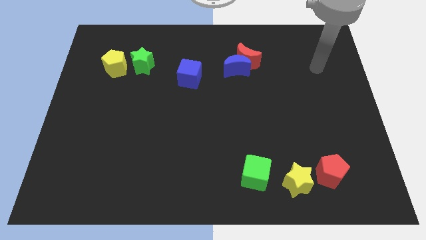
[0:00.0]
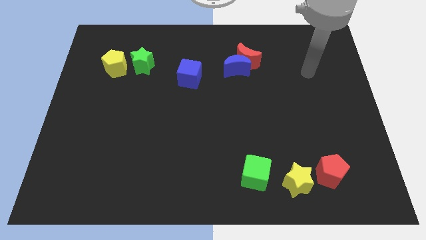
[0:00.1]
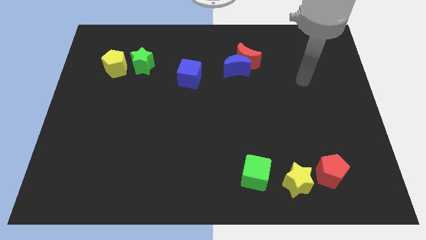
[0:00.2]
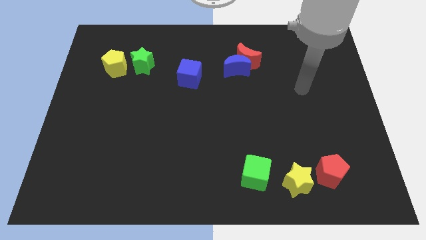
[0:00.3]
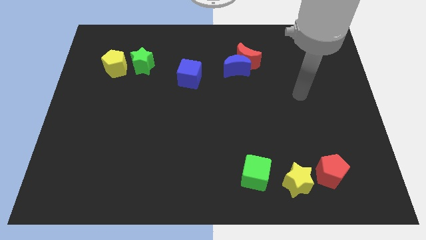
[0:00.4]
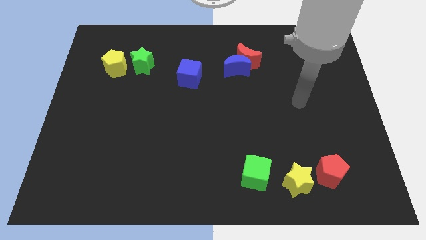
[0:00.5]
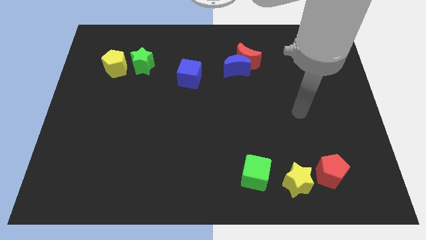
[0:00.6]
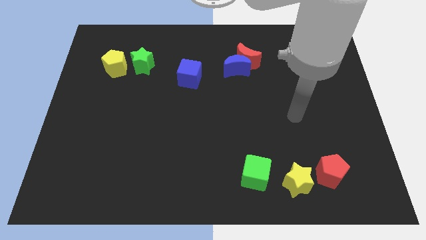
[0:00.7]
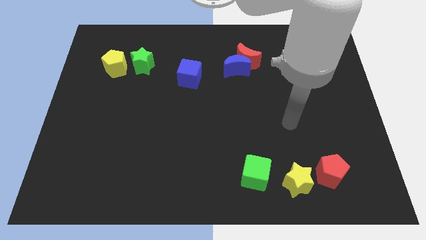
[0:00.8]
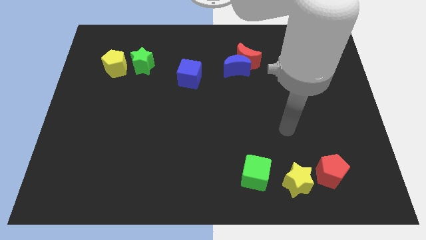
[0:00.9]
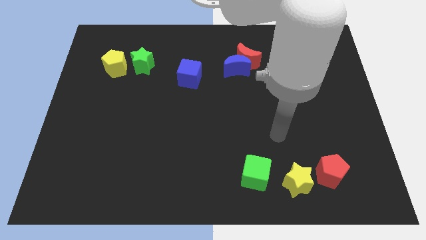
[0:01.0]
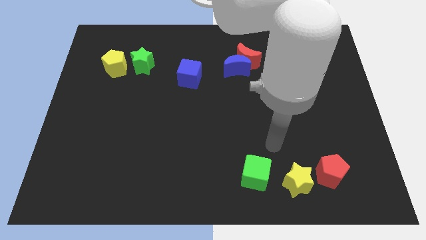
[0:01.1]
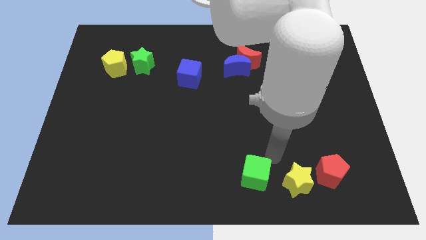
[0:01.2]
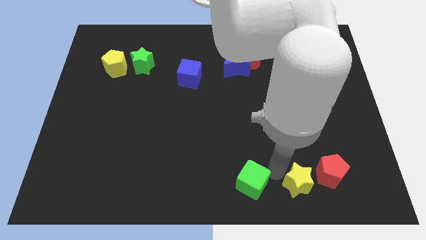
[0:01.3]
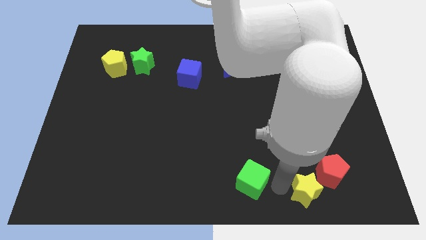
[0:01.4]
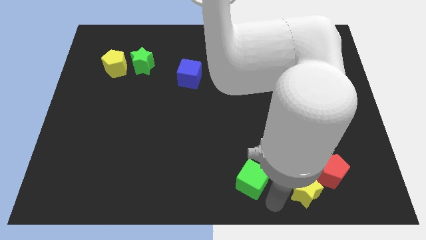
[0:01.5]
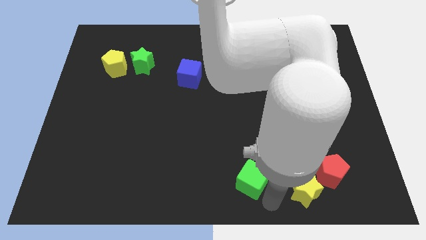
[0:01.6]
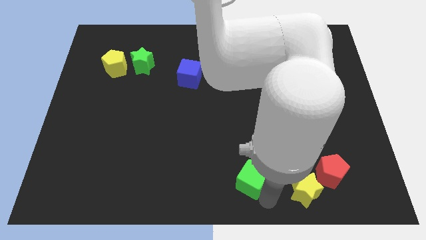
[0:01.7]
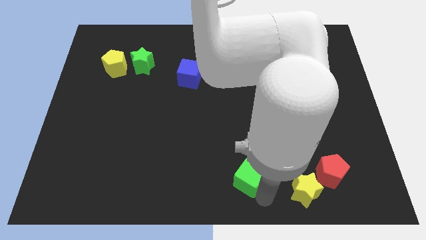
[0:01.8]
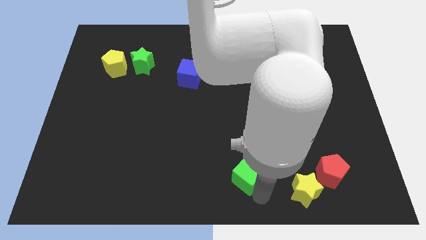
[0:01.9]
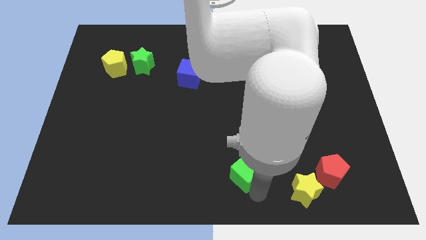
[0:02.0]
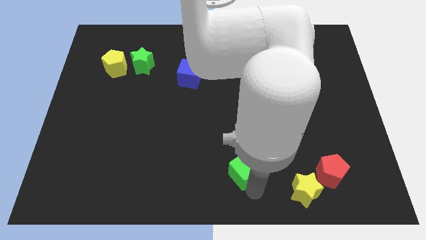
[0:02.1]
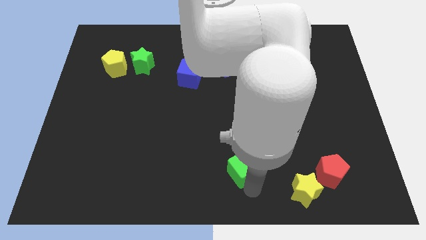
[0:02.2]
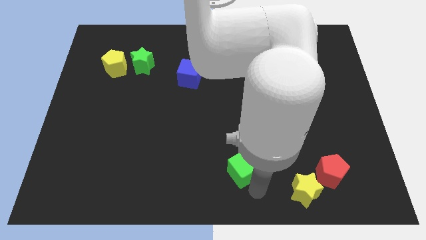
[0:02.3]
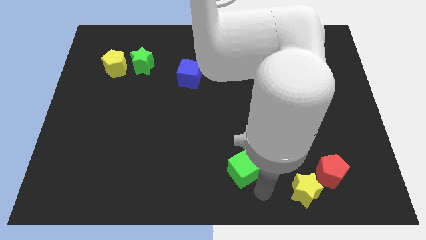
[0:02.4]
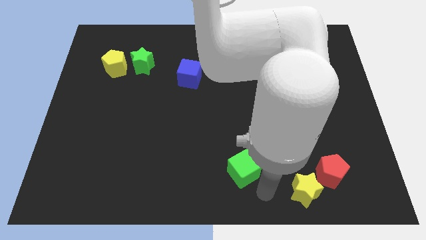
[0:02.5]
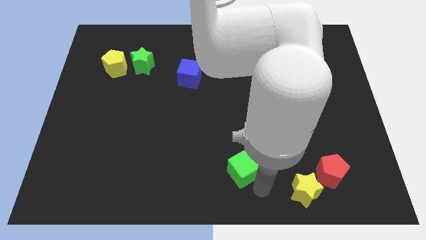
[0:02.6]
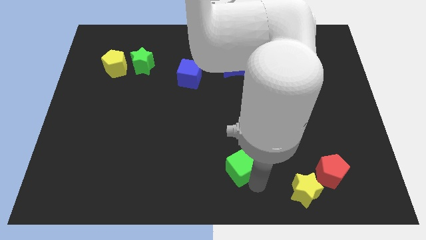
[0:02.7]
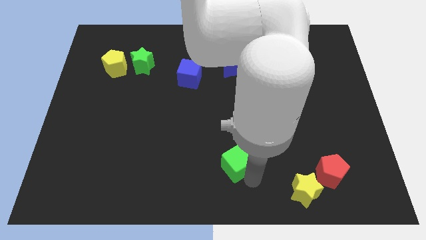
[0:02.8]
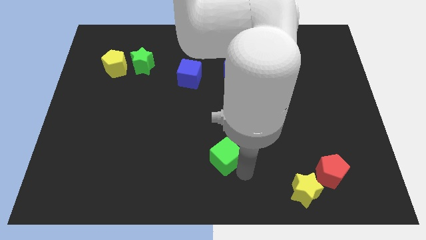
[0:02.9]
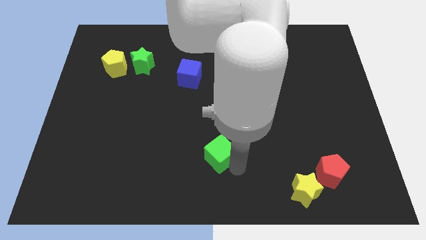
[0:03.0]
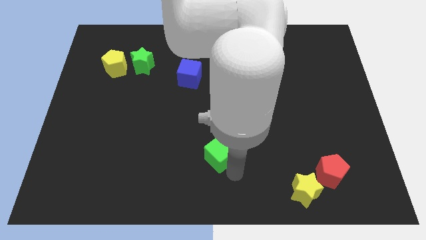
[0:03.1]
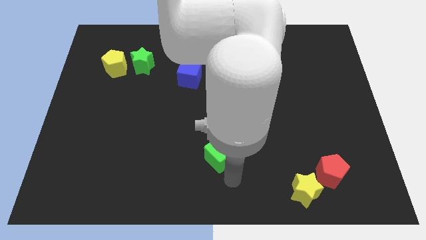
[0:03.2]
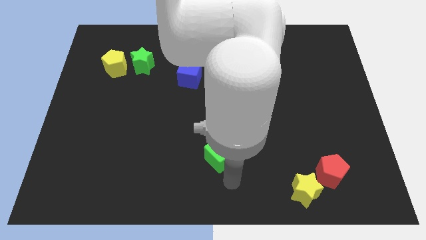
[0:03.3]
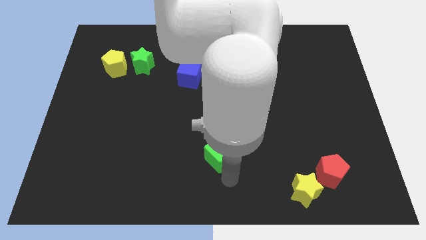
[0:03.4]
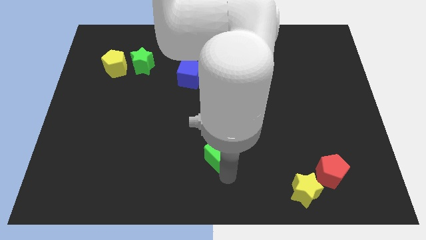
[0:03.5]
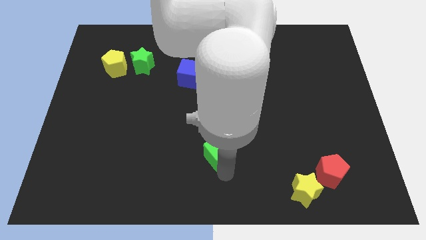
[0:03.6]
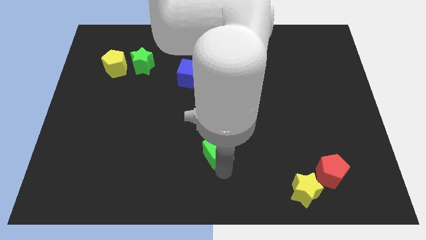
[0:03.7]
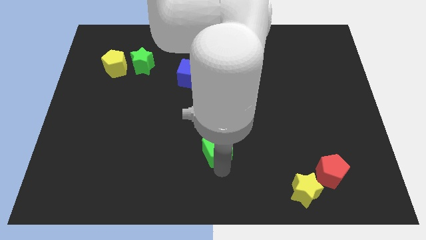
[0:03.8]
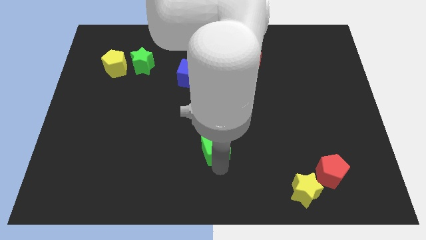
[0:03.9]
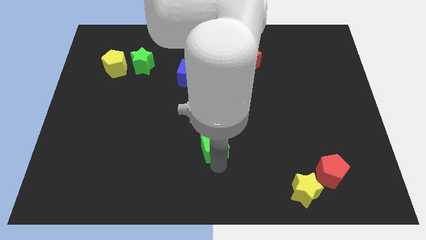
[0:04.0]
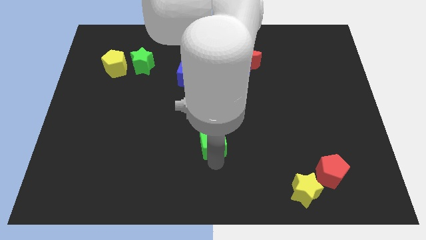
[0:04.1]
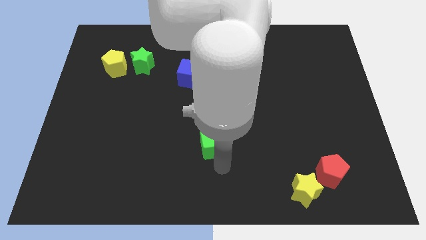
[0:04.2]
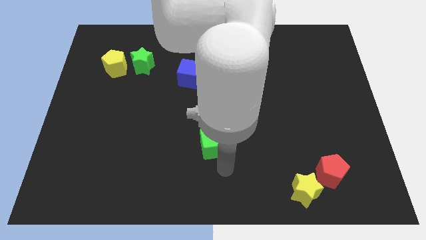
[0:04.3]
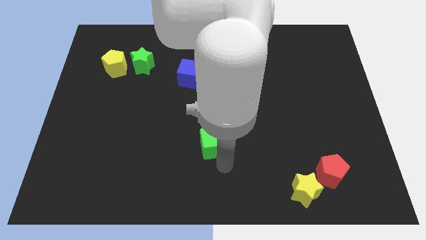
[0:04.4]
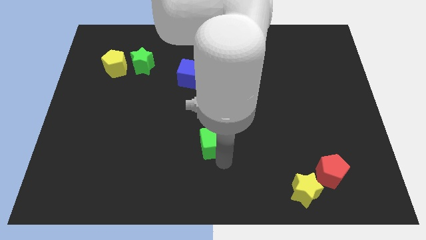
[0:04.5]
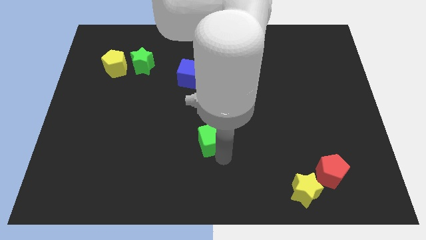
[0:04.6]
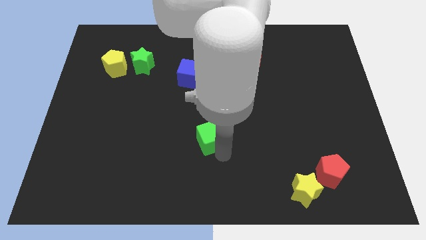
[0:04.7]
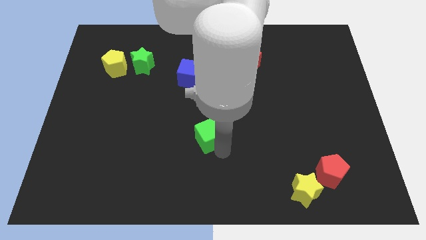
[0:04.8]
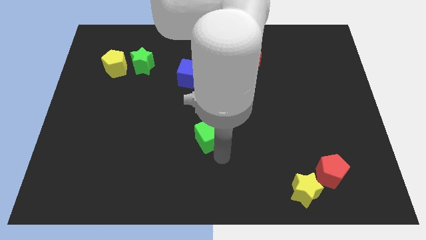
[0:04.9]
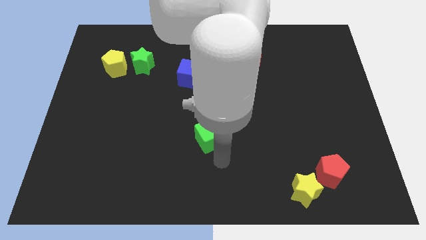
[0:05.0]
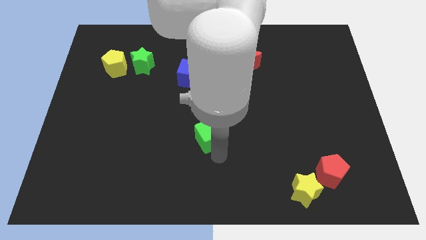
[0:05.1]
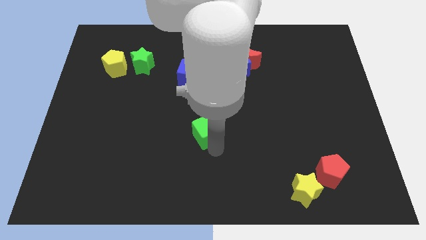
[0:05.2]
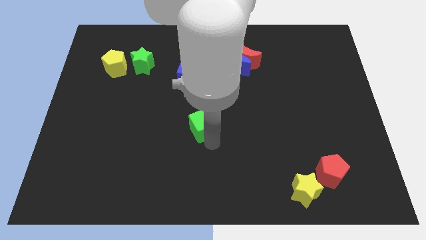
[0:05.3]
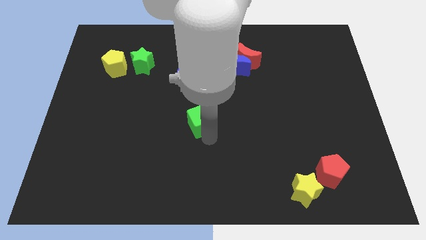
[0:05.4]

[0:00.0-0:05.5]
put the green cube to the bottom of the blue cube

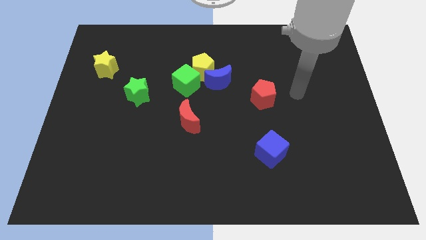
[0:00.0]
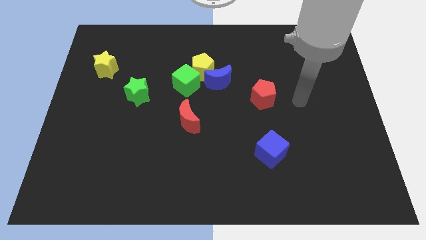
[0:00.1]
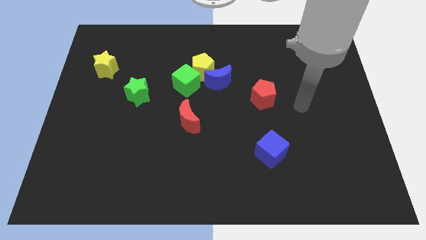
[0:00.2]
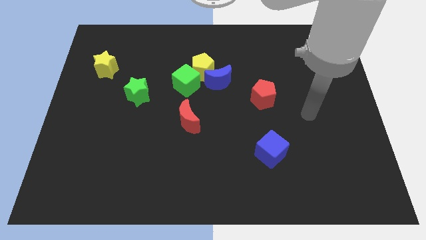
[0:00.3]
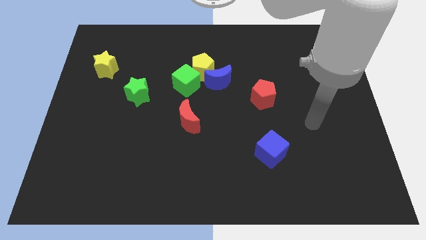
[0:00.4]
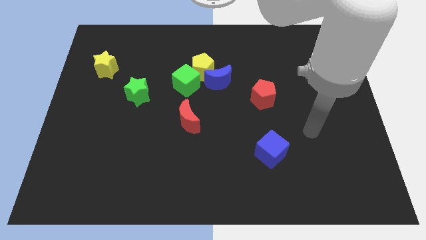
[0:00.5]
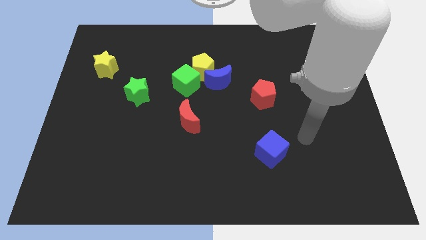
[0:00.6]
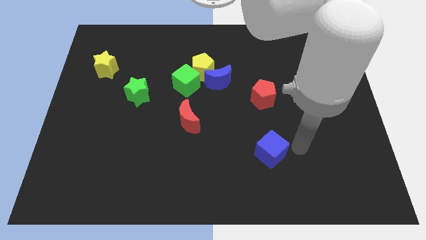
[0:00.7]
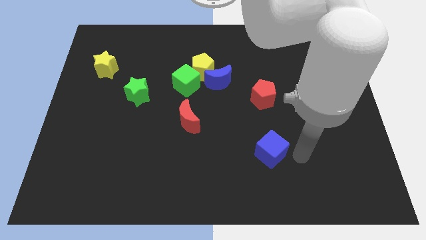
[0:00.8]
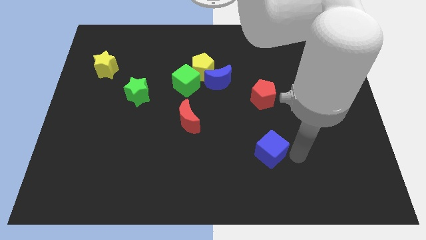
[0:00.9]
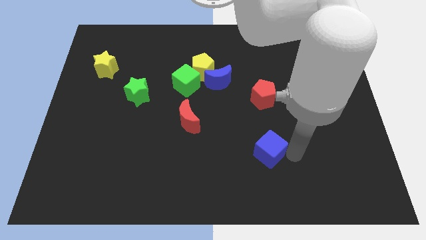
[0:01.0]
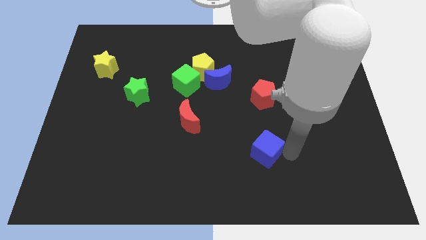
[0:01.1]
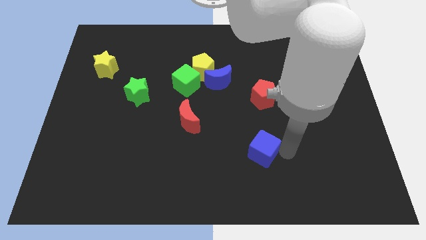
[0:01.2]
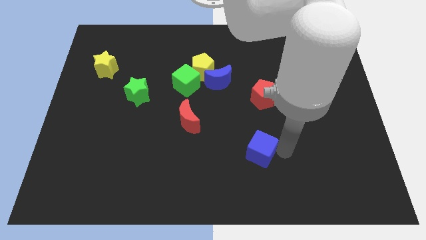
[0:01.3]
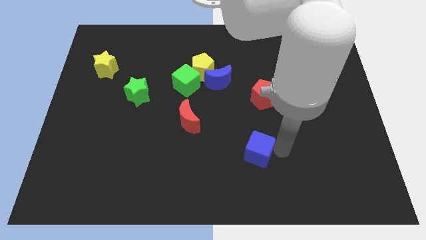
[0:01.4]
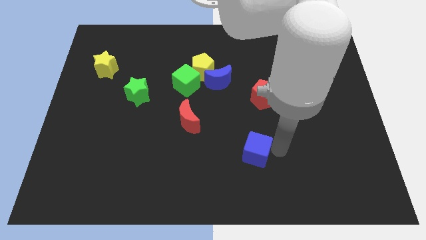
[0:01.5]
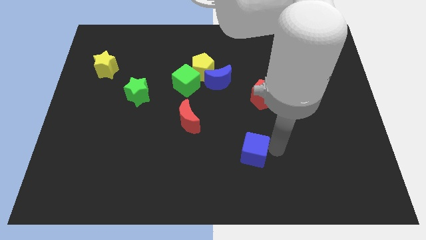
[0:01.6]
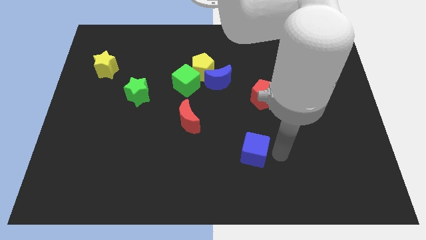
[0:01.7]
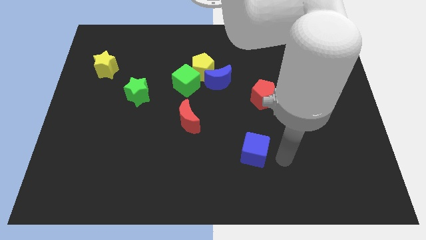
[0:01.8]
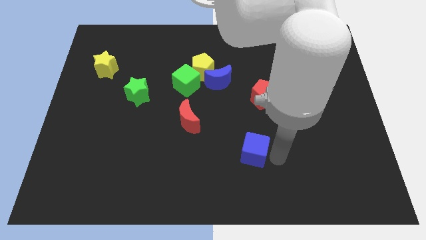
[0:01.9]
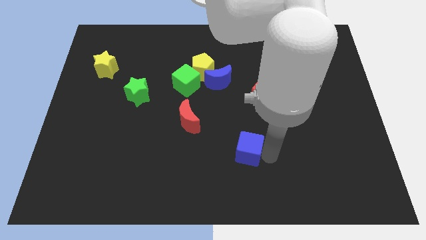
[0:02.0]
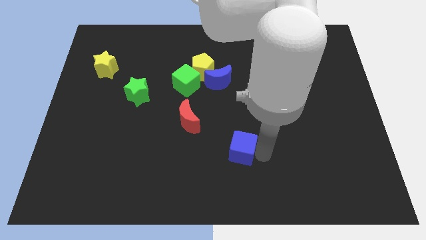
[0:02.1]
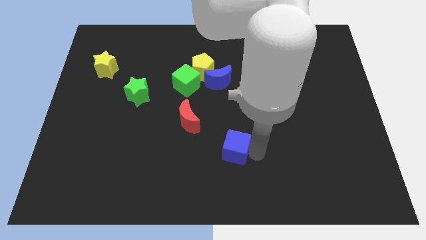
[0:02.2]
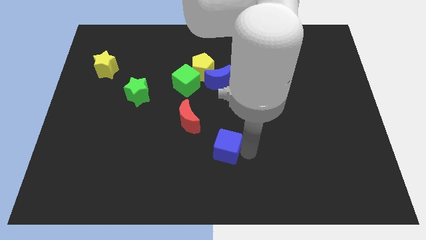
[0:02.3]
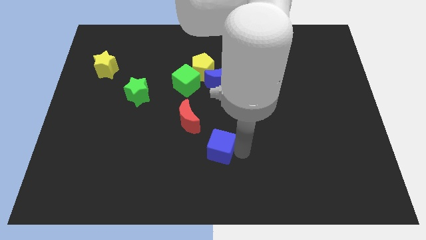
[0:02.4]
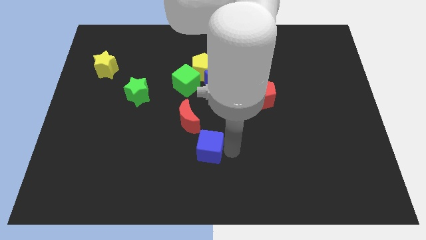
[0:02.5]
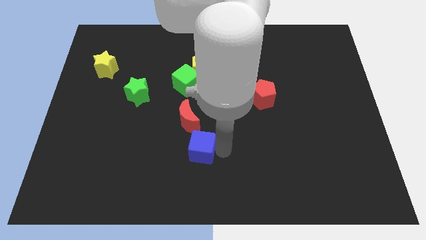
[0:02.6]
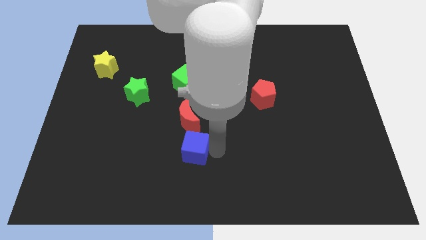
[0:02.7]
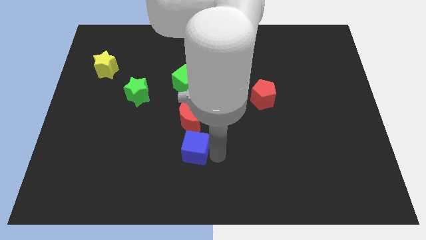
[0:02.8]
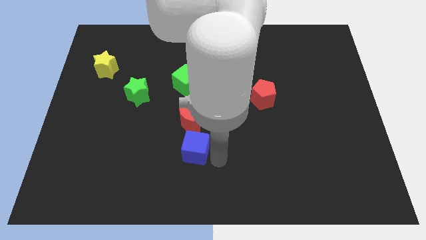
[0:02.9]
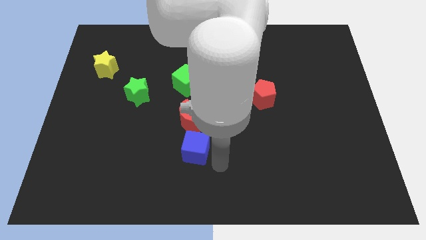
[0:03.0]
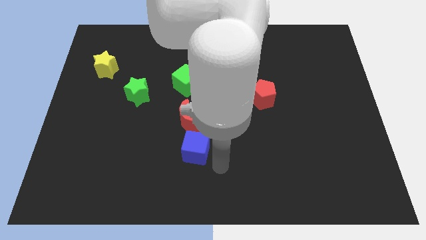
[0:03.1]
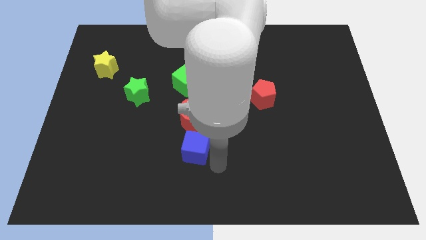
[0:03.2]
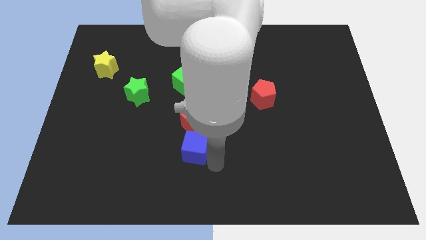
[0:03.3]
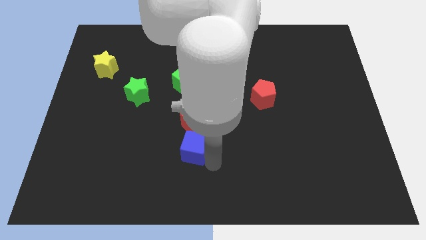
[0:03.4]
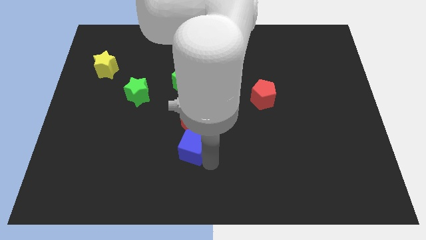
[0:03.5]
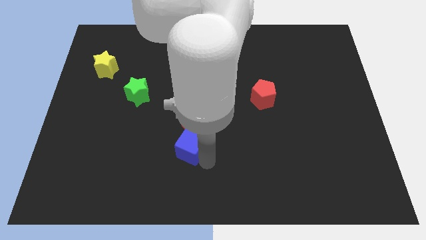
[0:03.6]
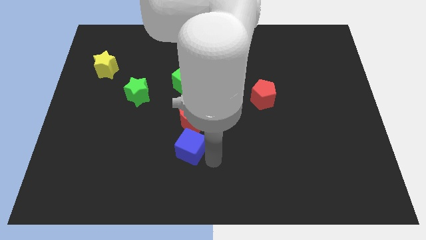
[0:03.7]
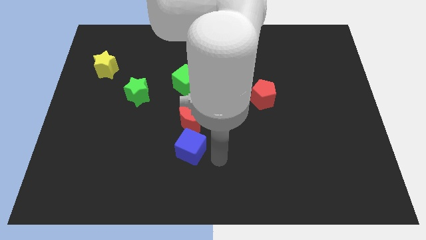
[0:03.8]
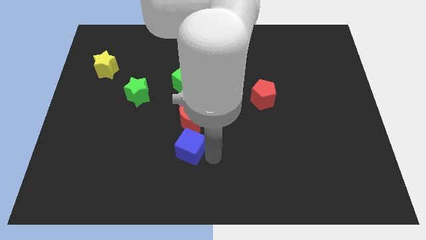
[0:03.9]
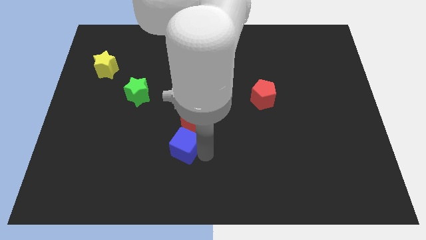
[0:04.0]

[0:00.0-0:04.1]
put the blue cube to the bottom left side of the red moon
